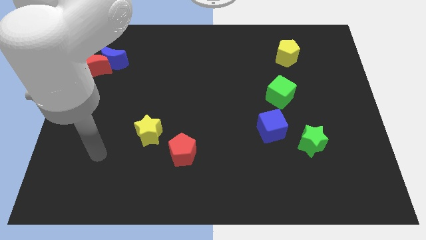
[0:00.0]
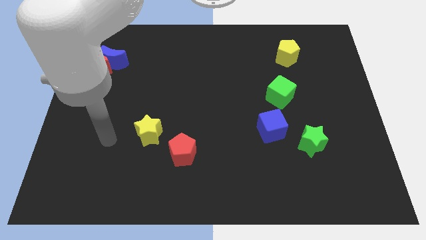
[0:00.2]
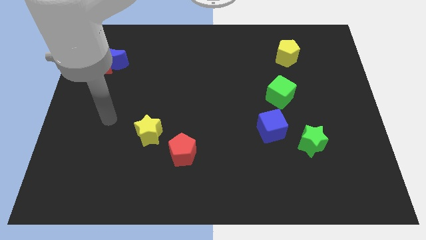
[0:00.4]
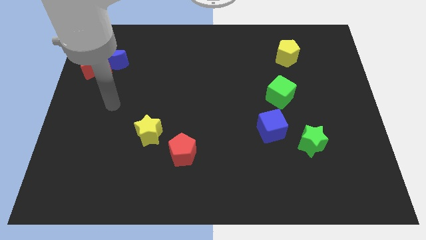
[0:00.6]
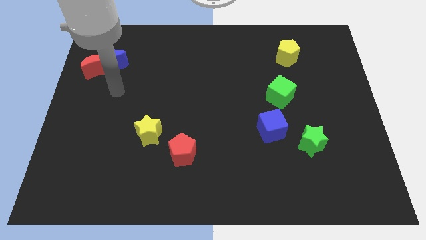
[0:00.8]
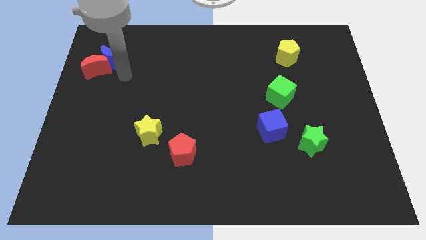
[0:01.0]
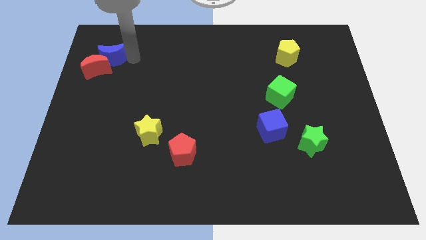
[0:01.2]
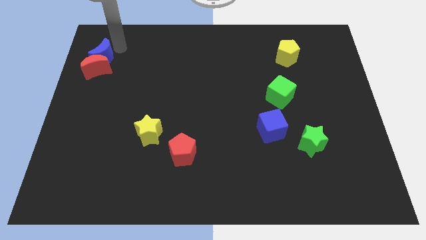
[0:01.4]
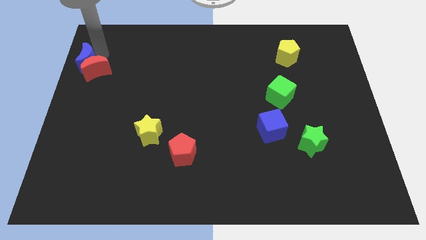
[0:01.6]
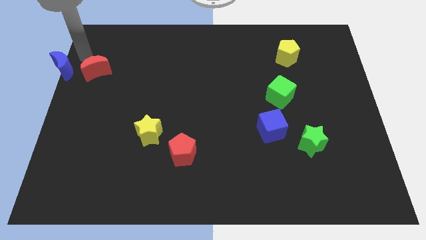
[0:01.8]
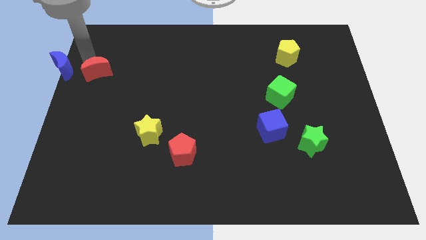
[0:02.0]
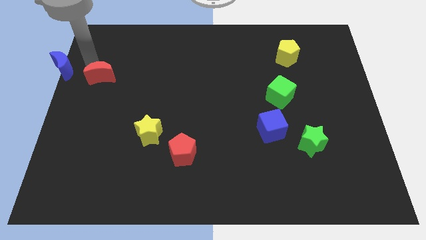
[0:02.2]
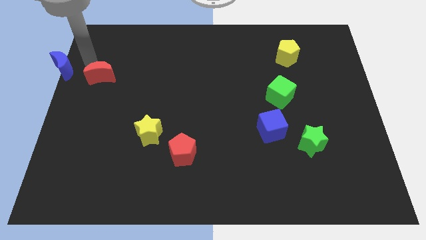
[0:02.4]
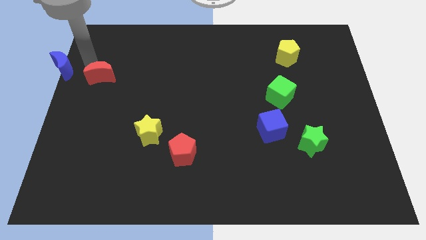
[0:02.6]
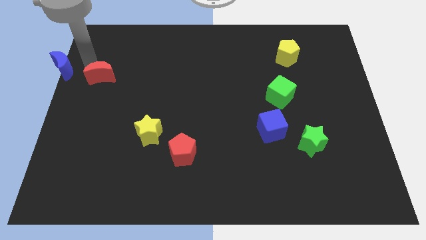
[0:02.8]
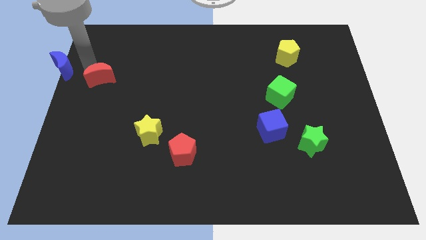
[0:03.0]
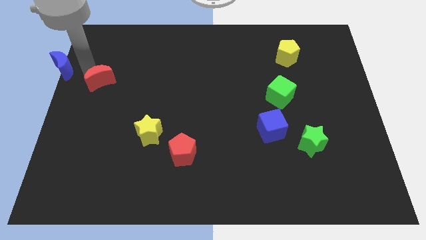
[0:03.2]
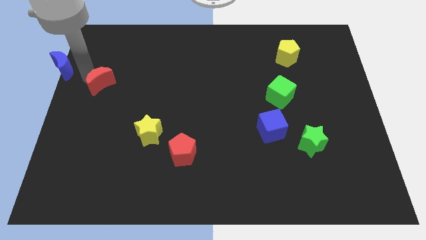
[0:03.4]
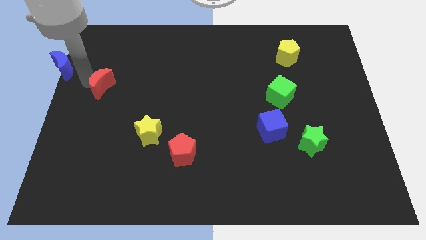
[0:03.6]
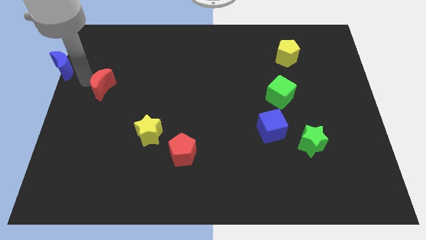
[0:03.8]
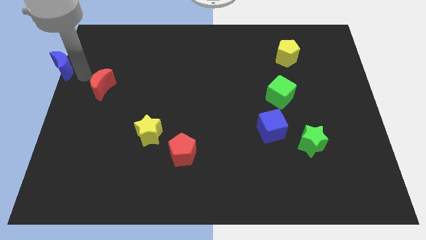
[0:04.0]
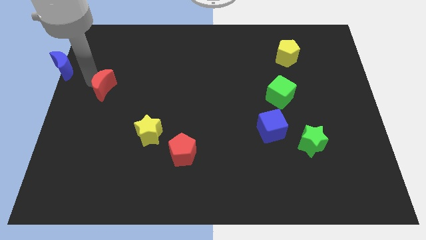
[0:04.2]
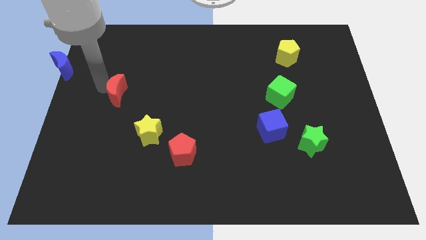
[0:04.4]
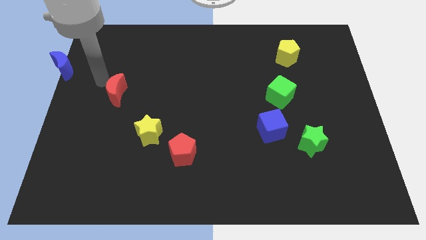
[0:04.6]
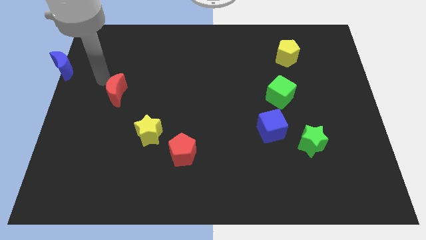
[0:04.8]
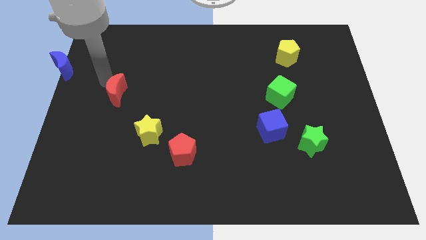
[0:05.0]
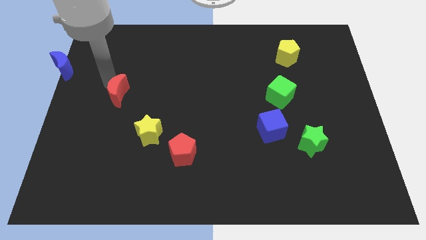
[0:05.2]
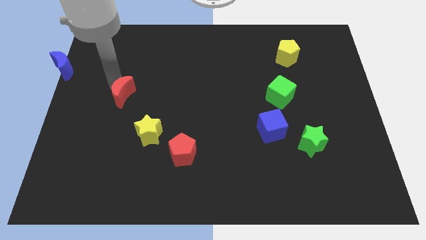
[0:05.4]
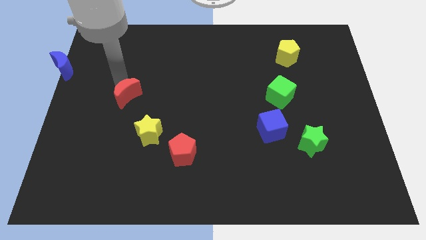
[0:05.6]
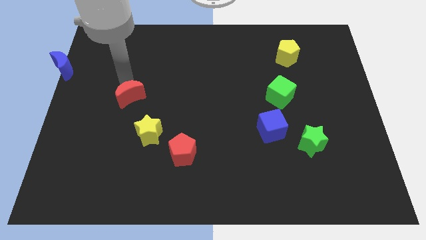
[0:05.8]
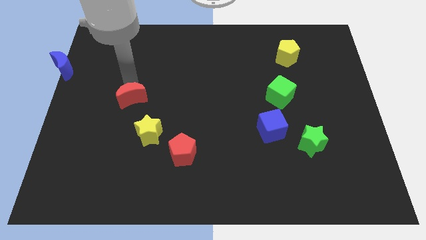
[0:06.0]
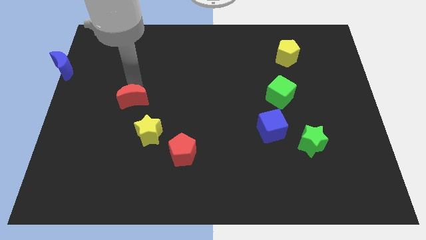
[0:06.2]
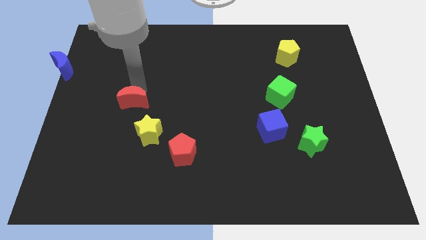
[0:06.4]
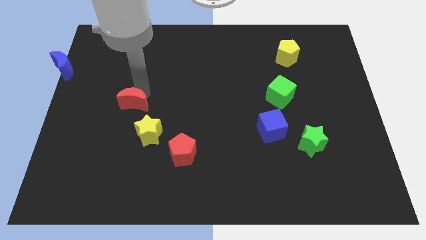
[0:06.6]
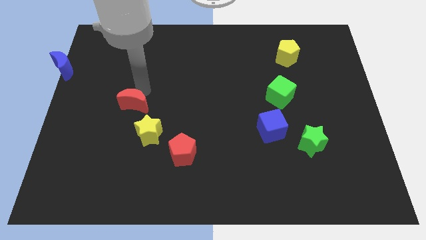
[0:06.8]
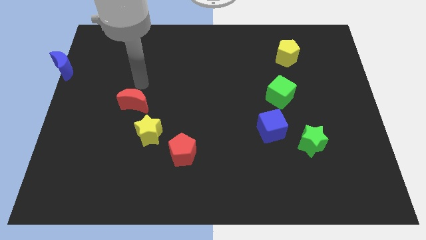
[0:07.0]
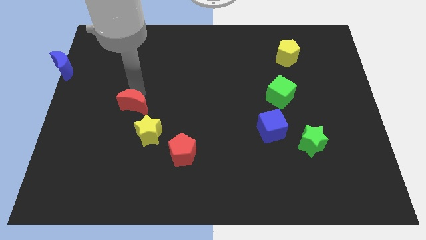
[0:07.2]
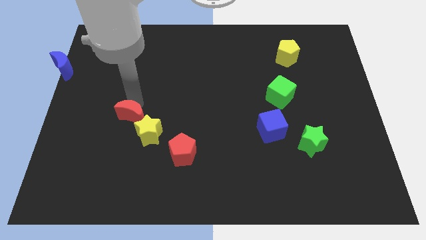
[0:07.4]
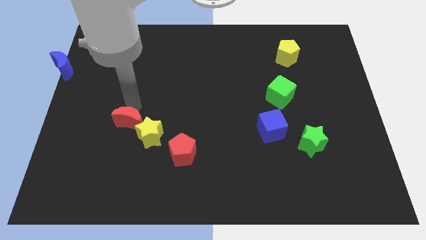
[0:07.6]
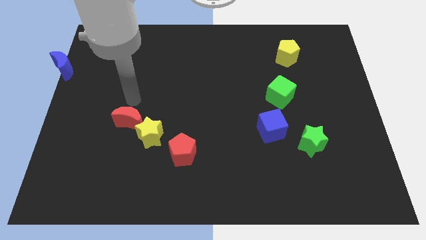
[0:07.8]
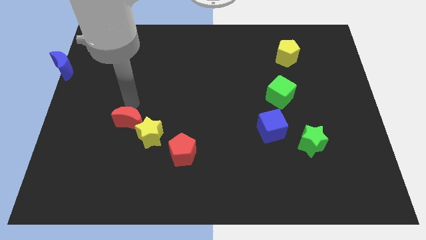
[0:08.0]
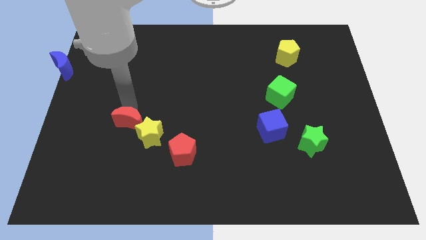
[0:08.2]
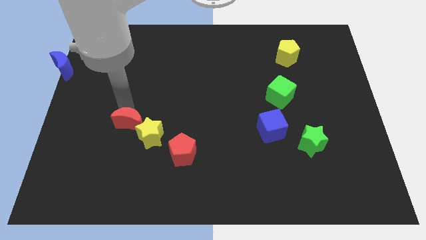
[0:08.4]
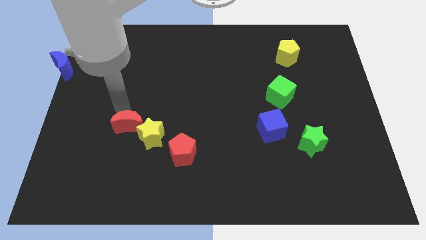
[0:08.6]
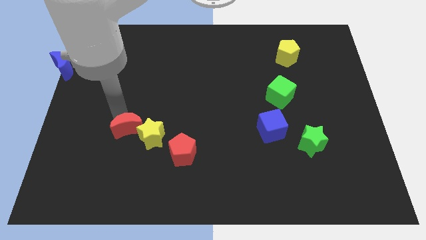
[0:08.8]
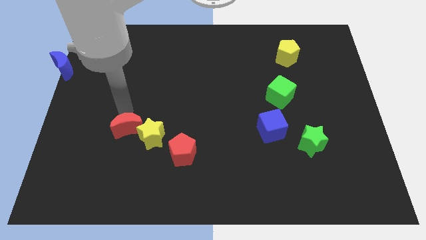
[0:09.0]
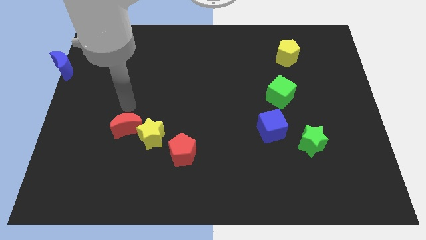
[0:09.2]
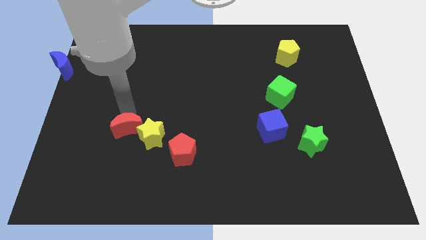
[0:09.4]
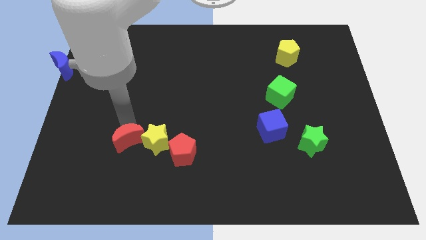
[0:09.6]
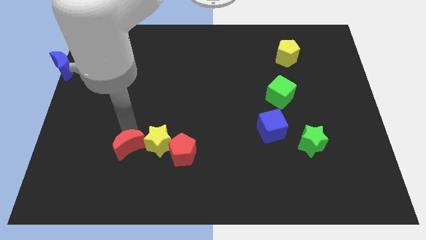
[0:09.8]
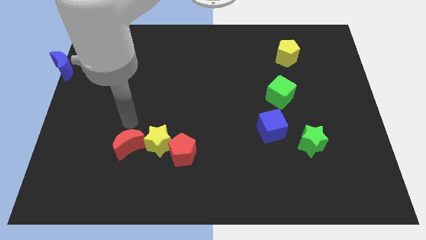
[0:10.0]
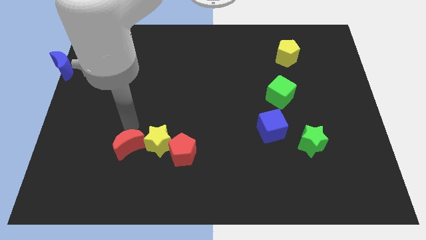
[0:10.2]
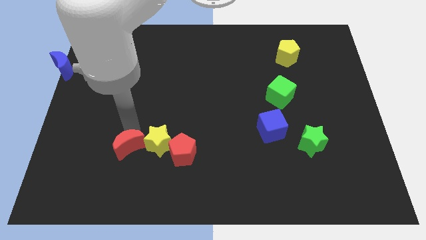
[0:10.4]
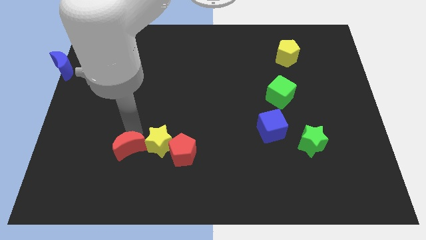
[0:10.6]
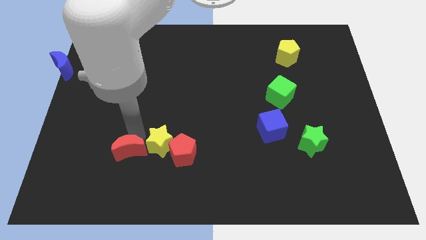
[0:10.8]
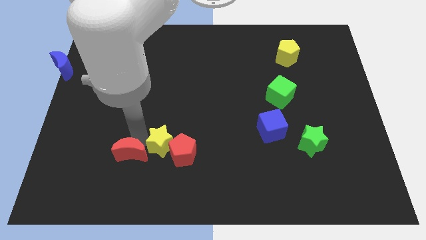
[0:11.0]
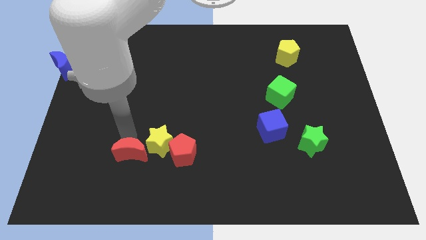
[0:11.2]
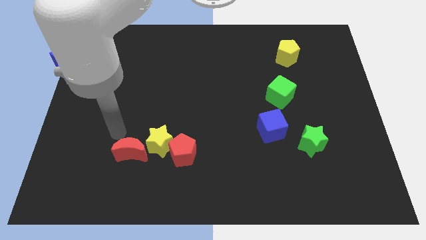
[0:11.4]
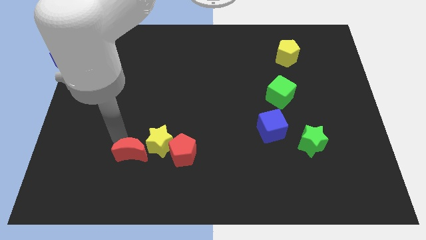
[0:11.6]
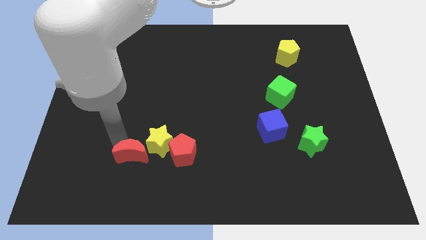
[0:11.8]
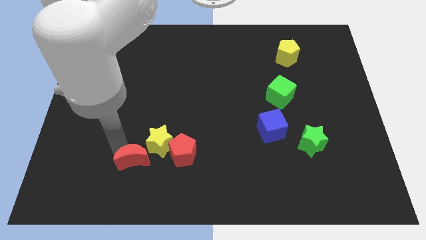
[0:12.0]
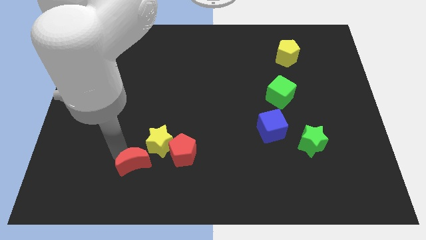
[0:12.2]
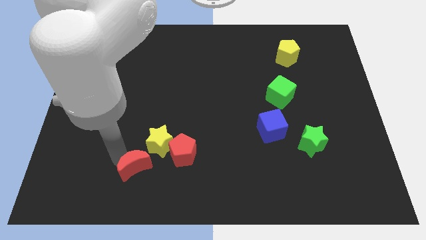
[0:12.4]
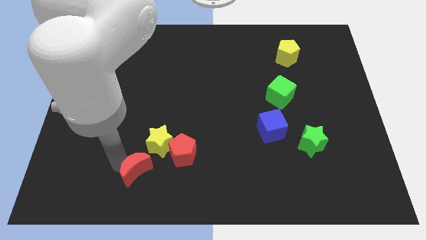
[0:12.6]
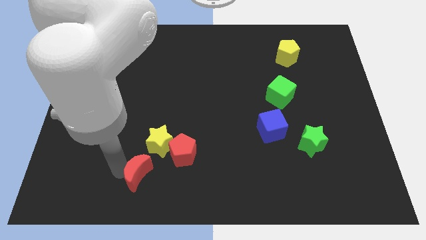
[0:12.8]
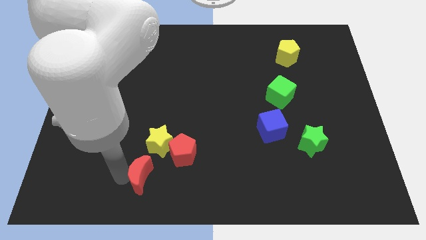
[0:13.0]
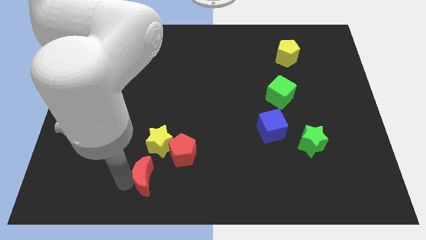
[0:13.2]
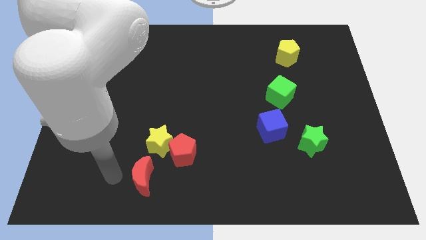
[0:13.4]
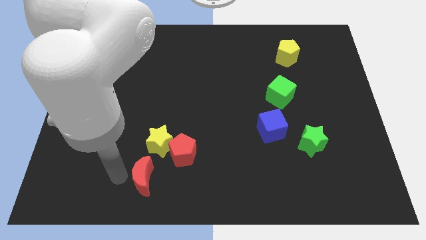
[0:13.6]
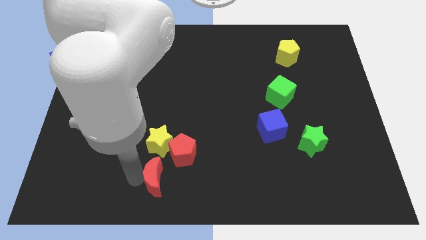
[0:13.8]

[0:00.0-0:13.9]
put the red moon to the bottom
